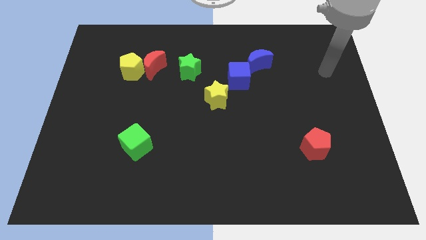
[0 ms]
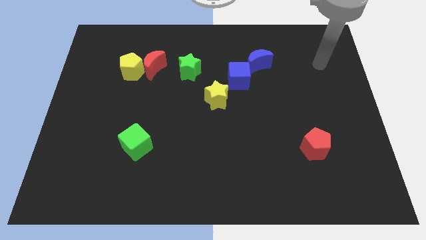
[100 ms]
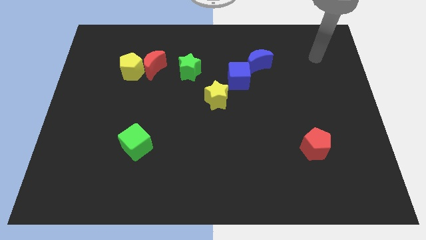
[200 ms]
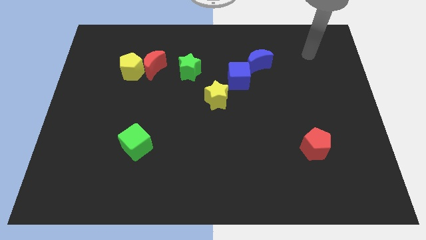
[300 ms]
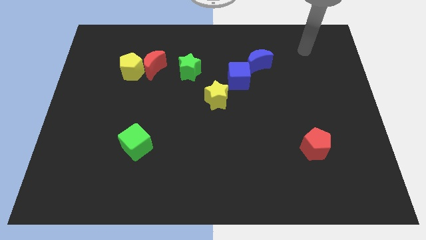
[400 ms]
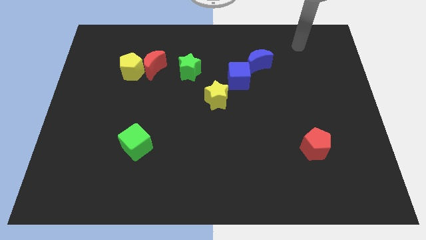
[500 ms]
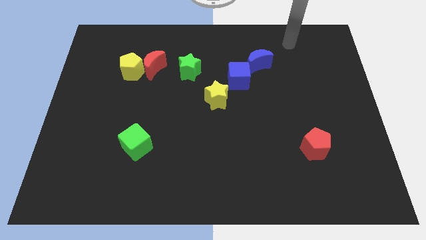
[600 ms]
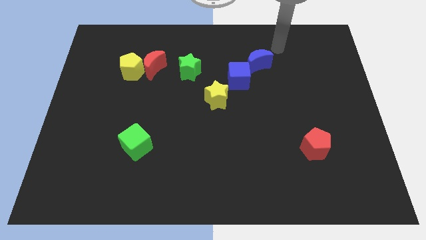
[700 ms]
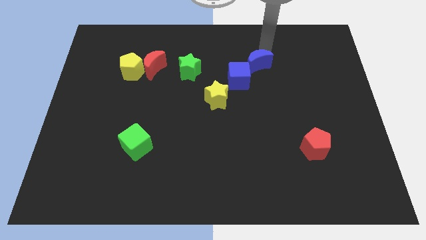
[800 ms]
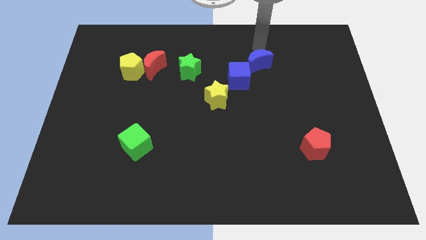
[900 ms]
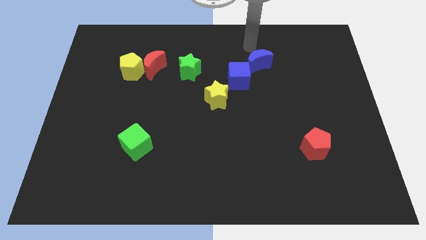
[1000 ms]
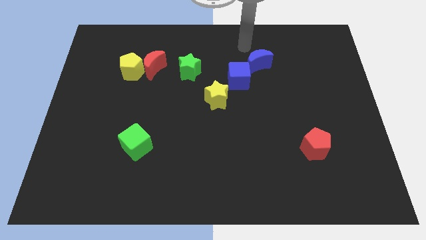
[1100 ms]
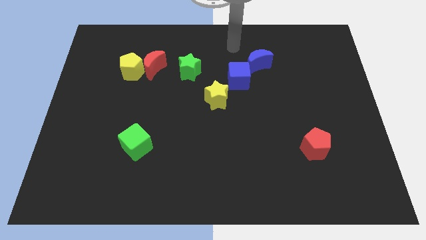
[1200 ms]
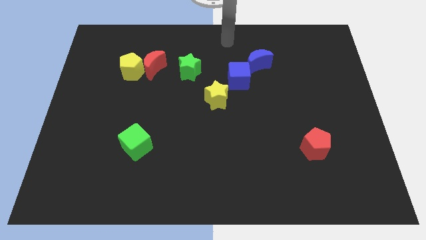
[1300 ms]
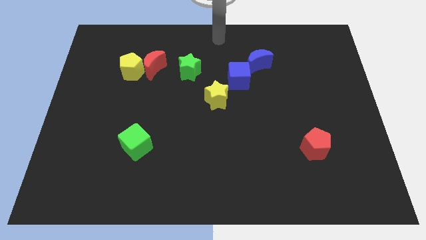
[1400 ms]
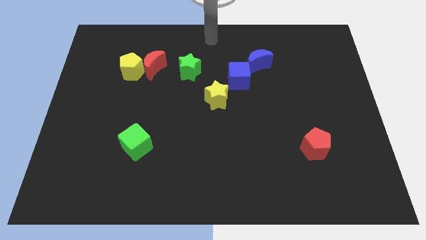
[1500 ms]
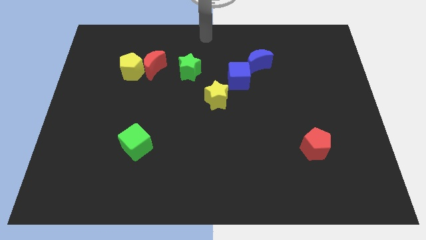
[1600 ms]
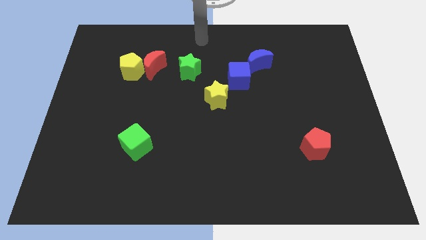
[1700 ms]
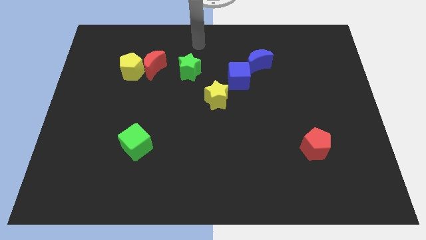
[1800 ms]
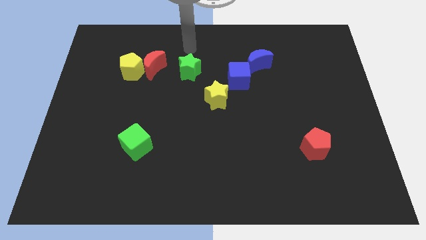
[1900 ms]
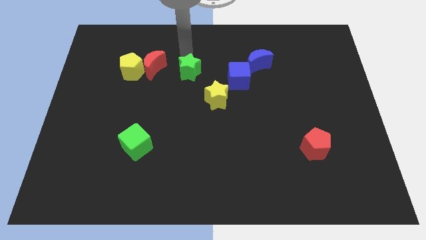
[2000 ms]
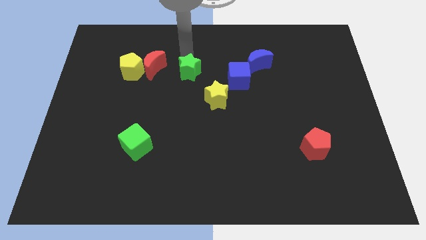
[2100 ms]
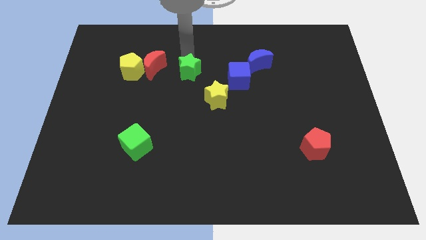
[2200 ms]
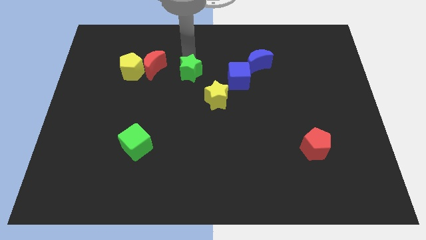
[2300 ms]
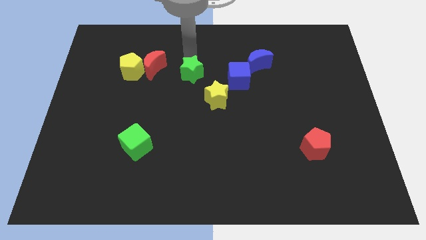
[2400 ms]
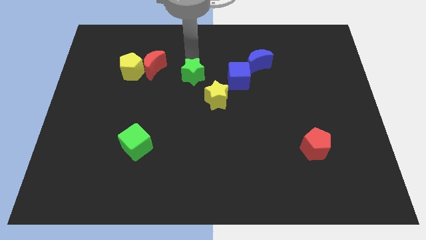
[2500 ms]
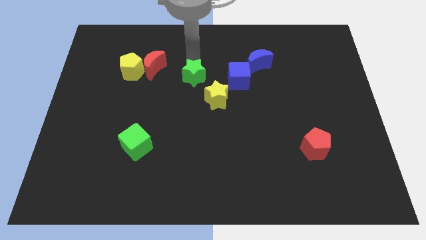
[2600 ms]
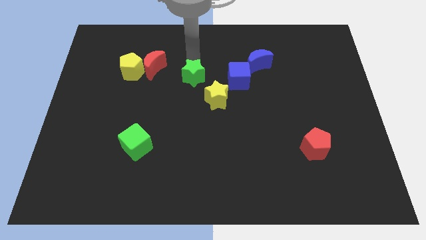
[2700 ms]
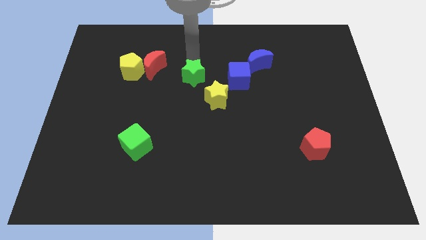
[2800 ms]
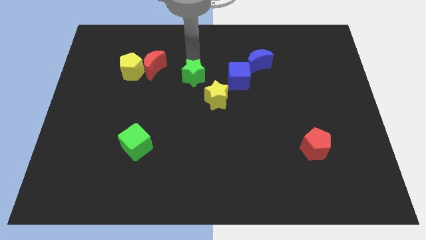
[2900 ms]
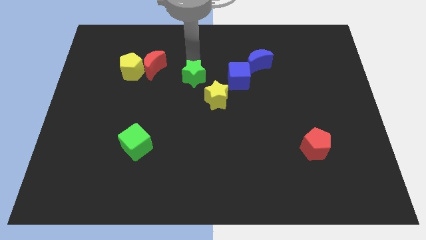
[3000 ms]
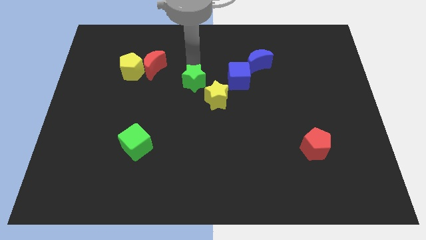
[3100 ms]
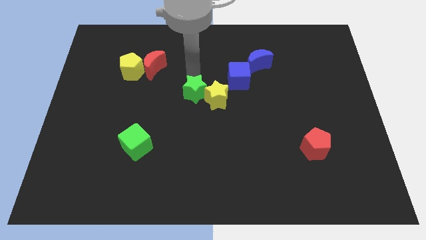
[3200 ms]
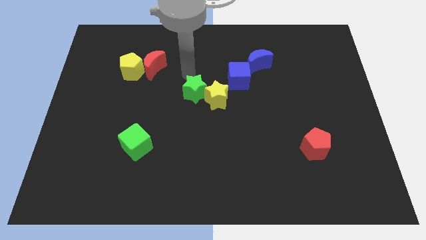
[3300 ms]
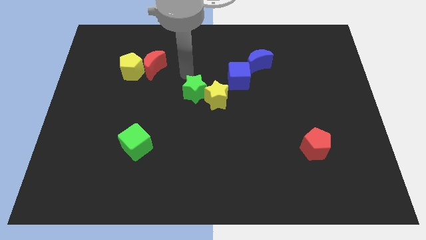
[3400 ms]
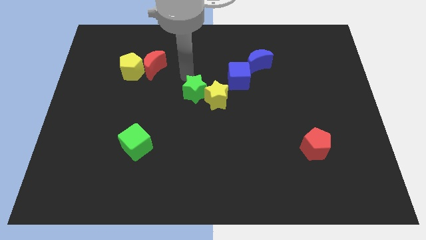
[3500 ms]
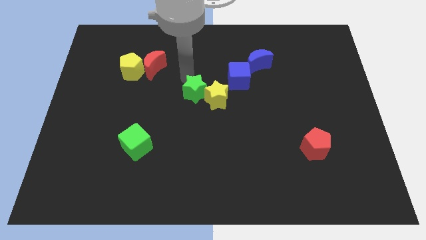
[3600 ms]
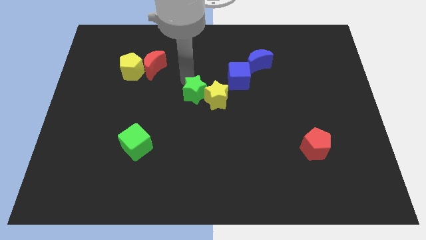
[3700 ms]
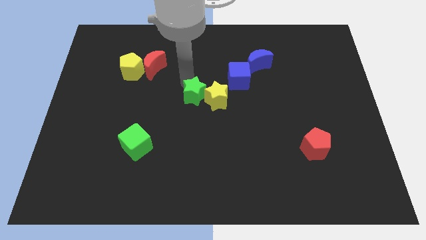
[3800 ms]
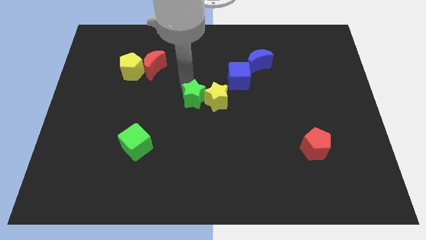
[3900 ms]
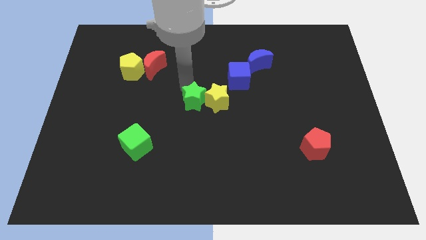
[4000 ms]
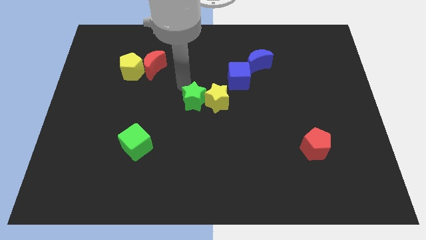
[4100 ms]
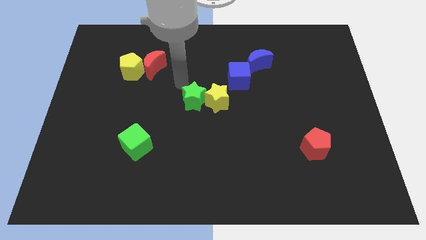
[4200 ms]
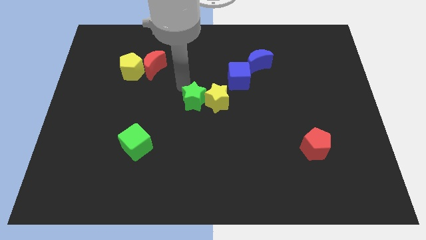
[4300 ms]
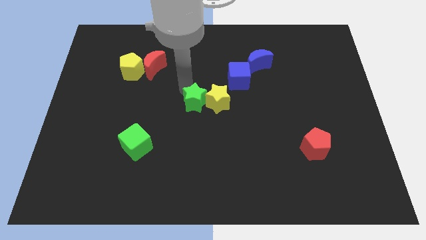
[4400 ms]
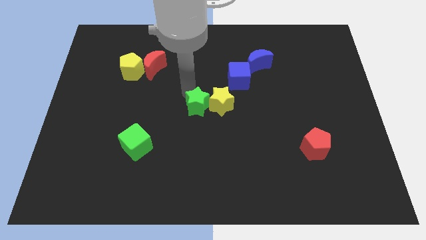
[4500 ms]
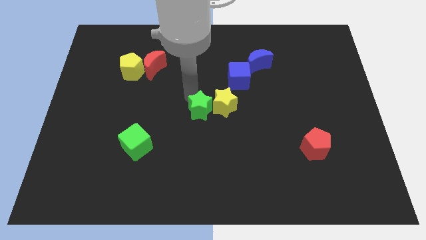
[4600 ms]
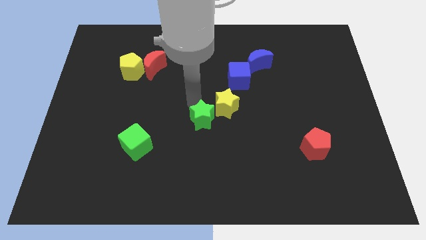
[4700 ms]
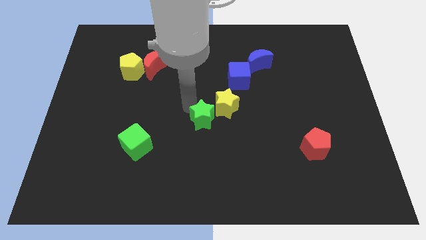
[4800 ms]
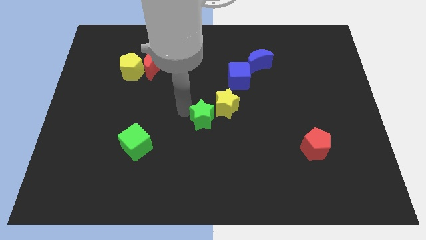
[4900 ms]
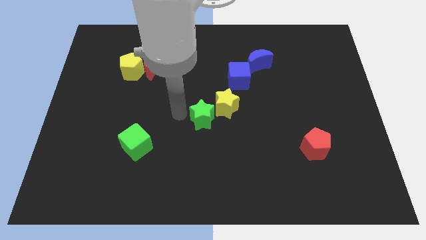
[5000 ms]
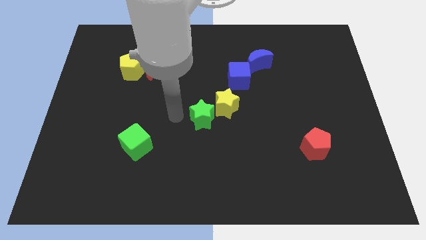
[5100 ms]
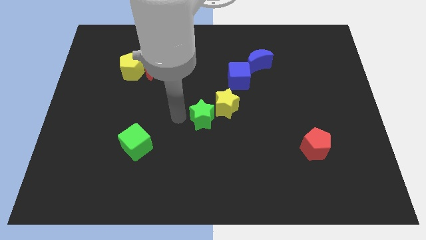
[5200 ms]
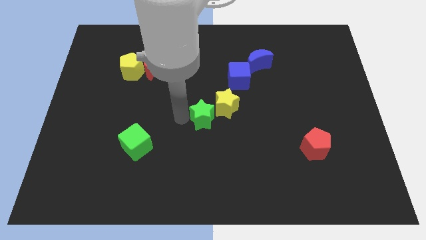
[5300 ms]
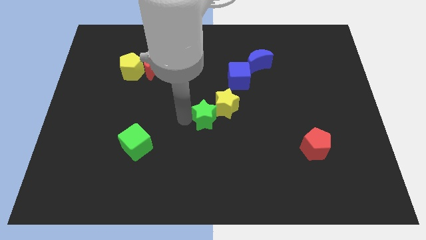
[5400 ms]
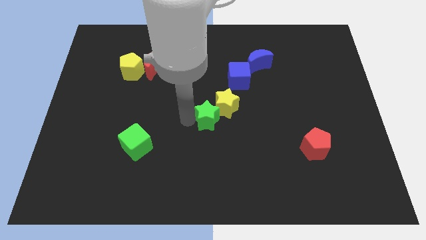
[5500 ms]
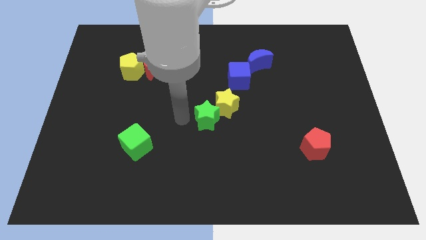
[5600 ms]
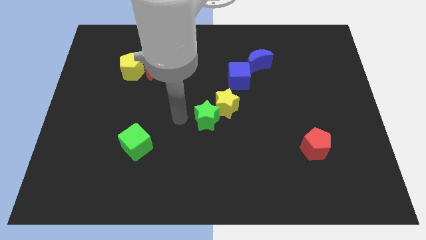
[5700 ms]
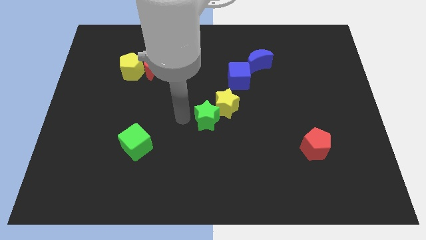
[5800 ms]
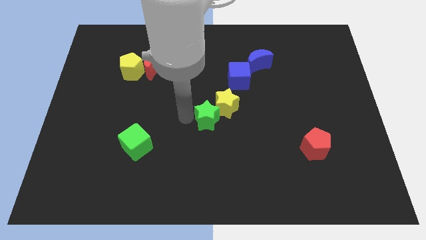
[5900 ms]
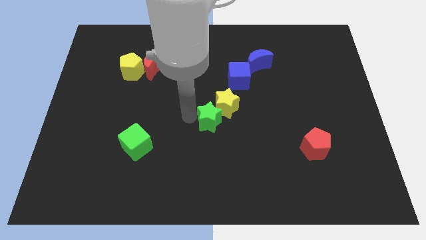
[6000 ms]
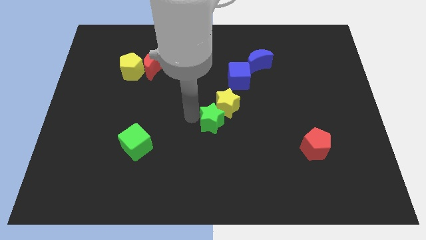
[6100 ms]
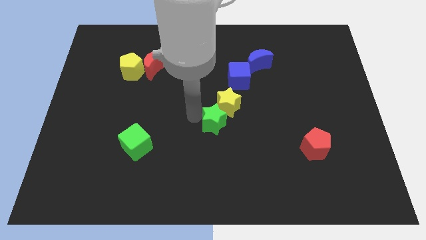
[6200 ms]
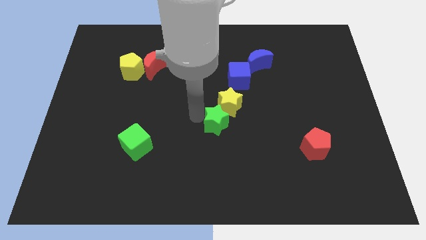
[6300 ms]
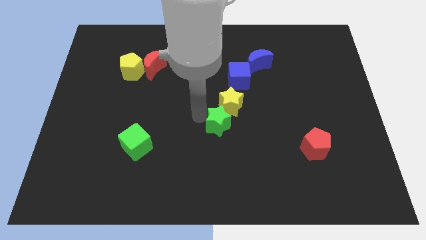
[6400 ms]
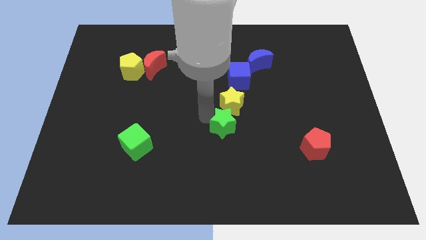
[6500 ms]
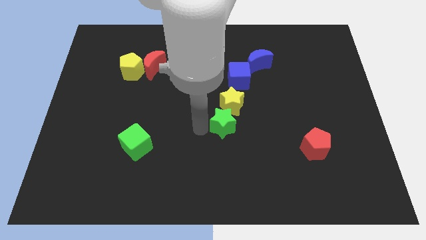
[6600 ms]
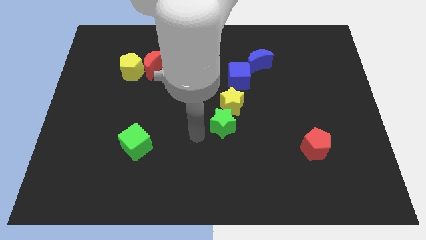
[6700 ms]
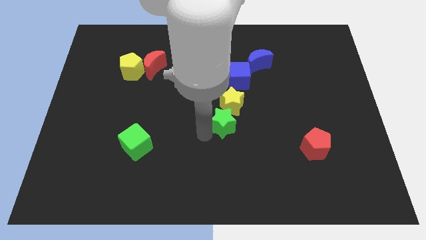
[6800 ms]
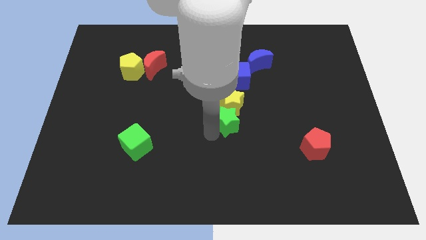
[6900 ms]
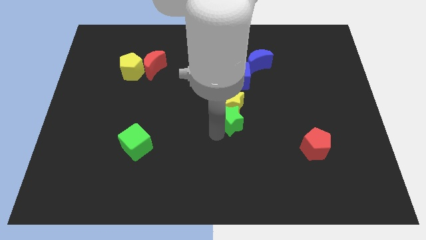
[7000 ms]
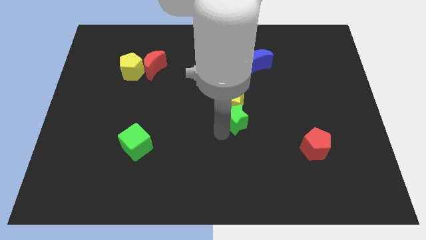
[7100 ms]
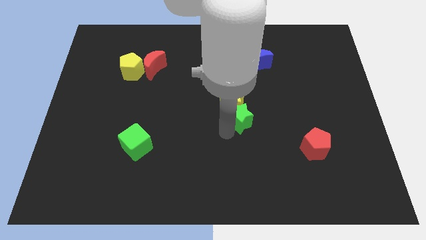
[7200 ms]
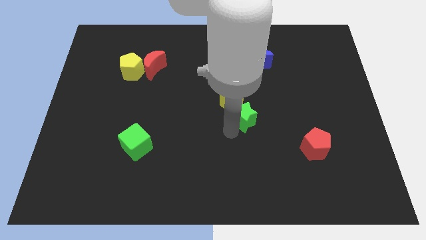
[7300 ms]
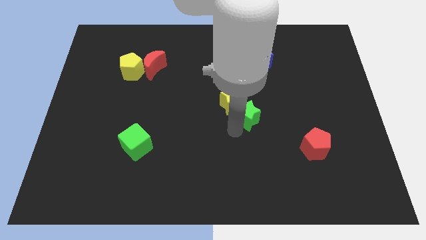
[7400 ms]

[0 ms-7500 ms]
push the green star to the right side of the yellow star
